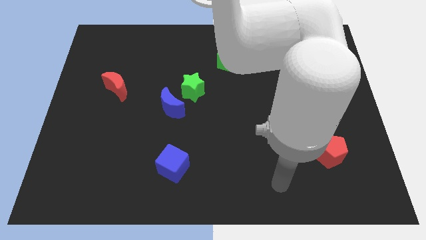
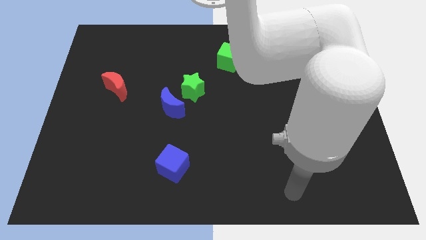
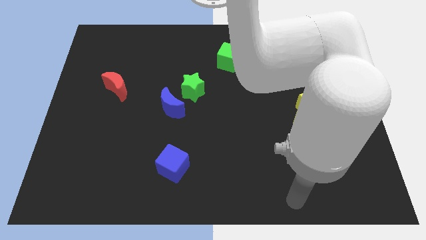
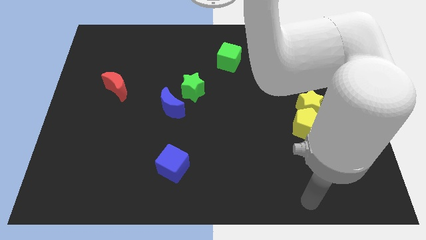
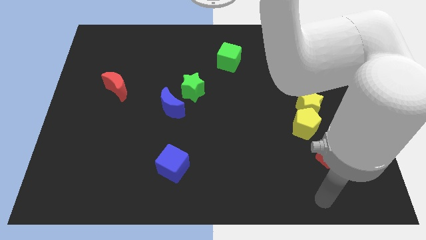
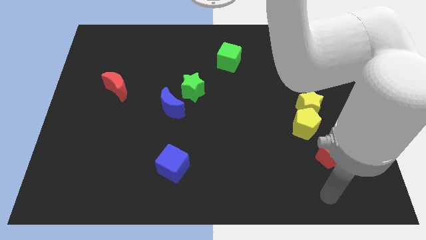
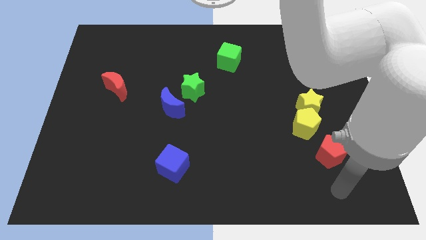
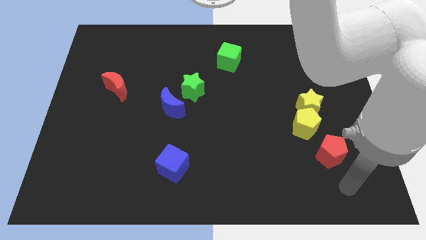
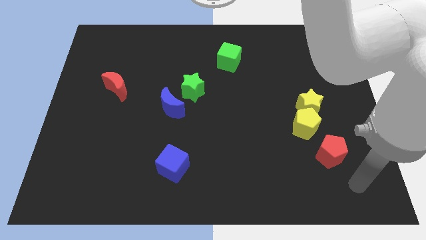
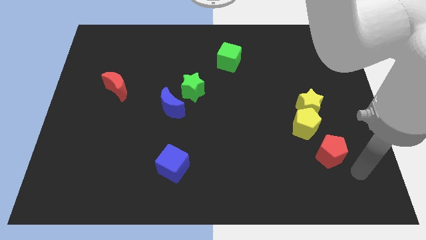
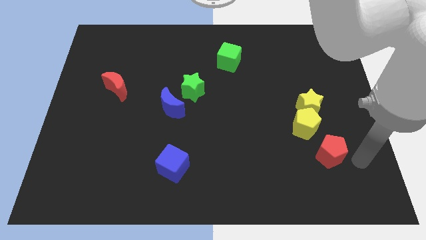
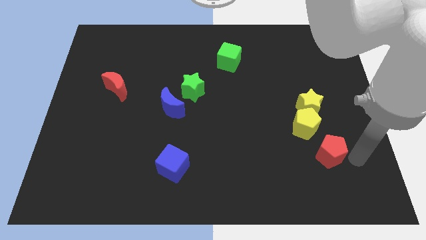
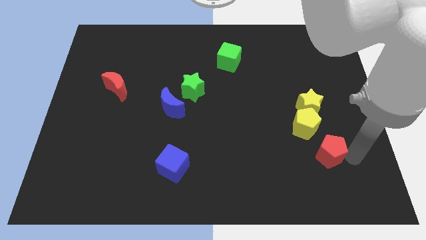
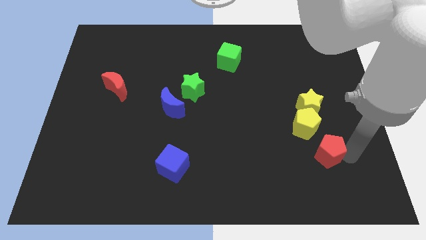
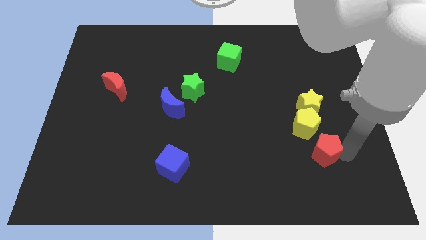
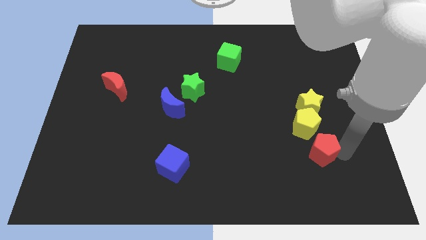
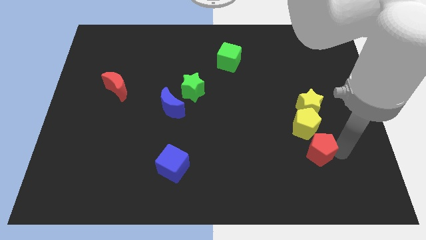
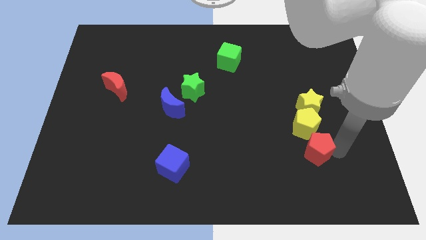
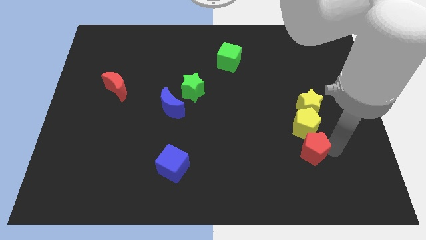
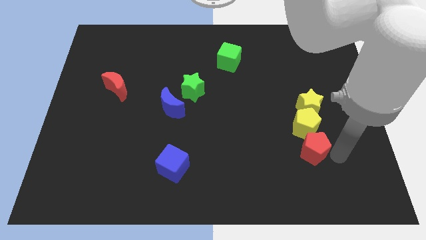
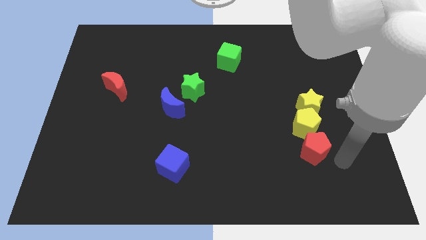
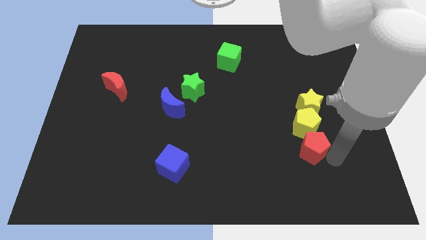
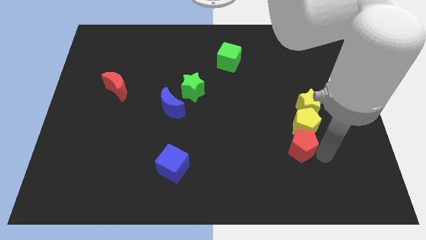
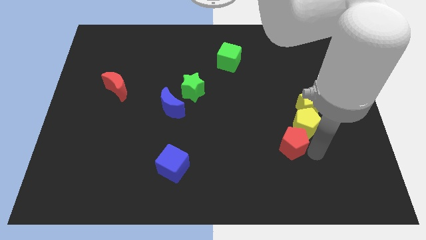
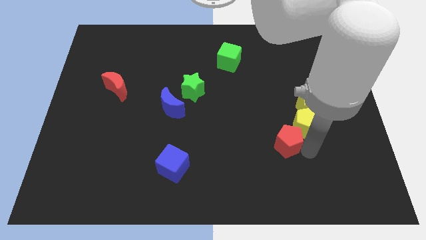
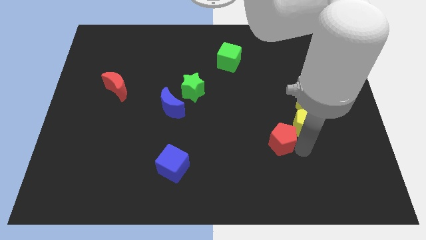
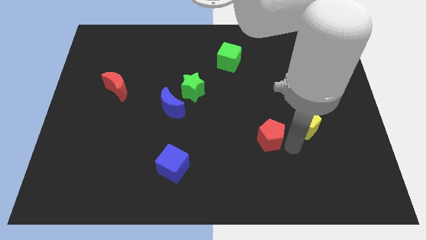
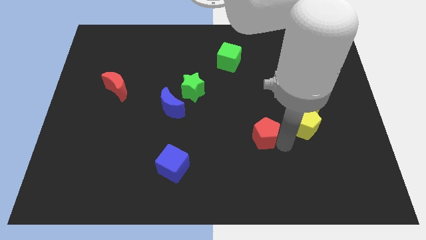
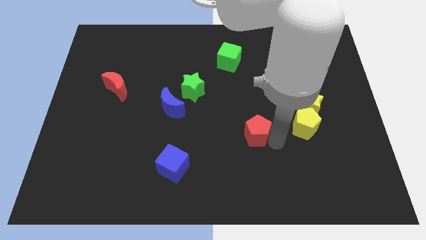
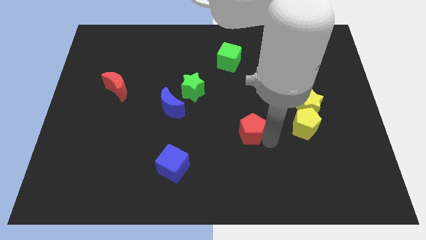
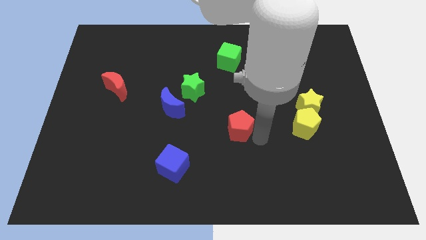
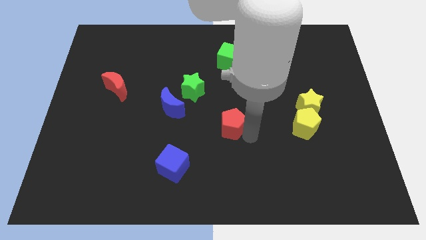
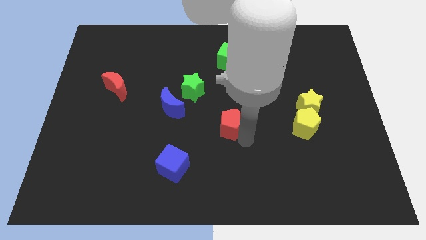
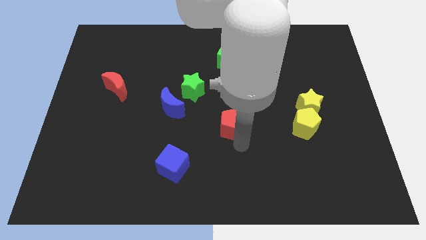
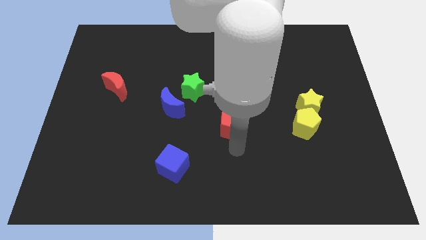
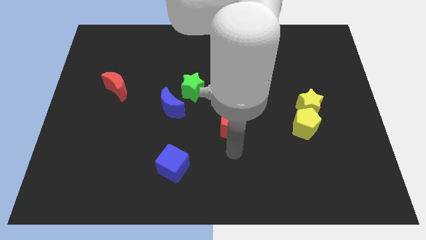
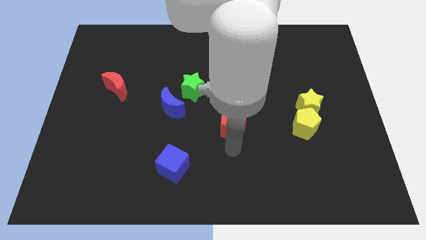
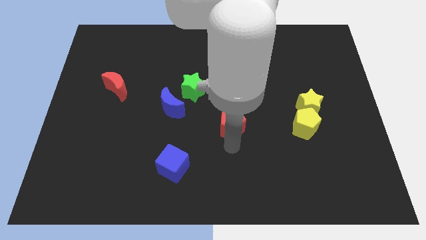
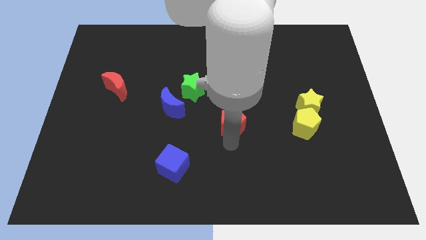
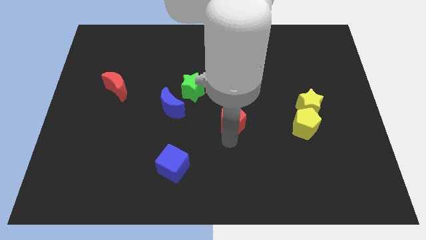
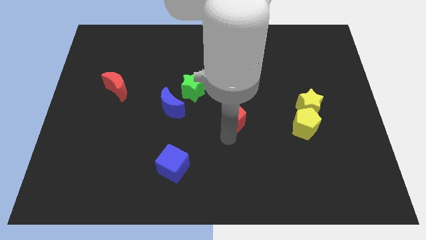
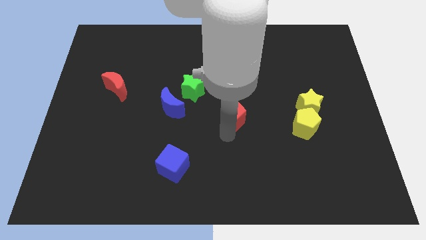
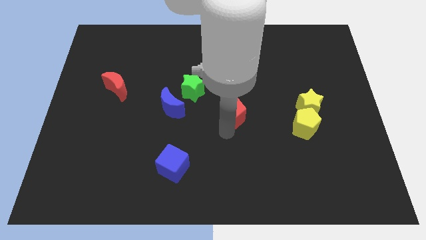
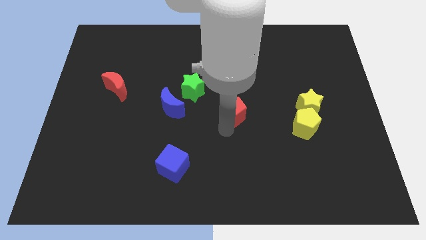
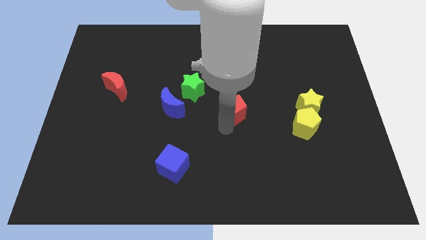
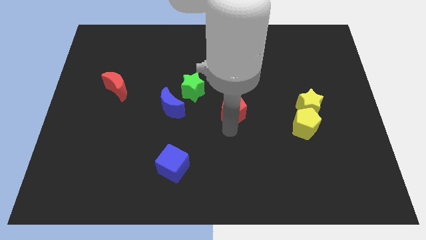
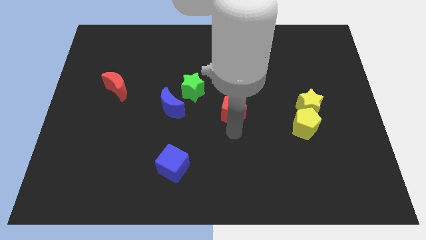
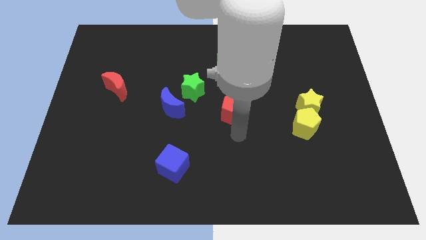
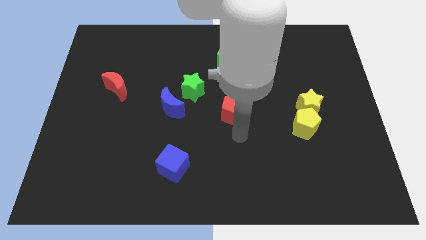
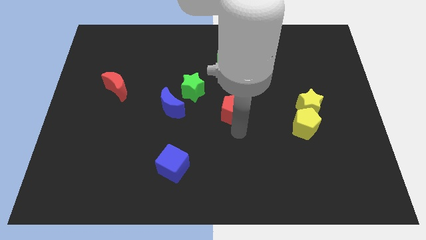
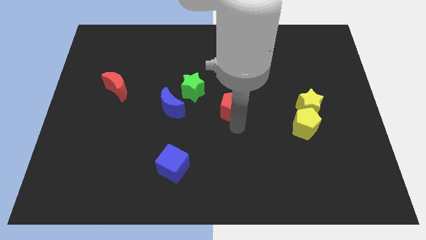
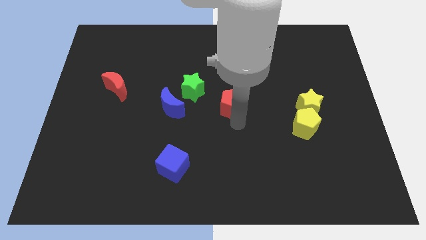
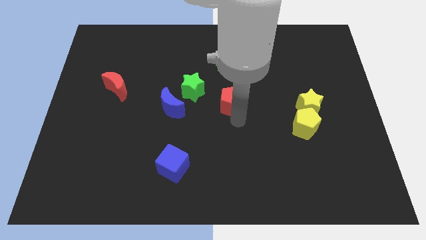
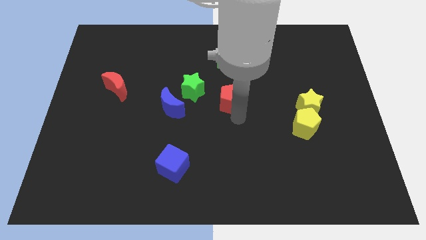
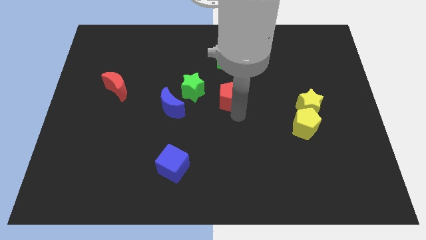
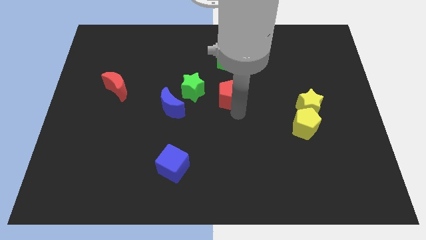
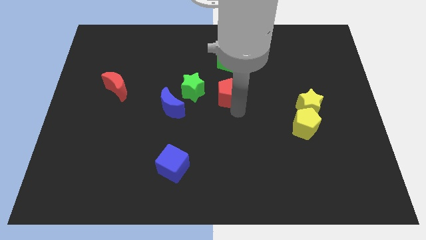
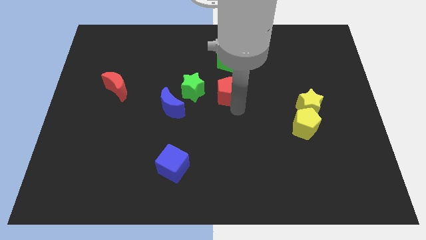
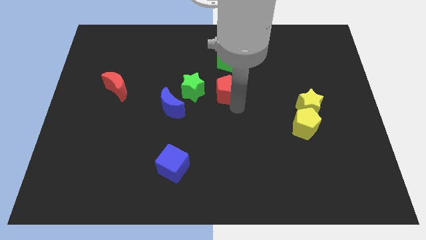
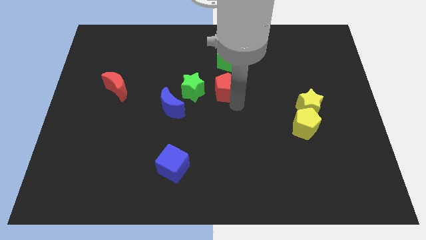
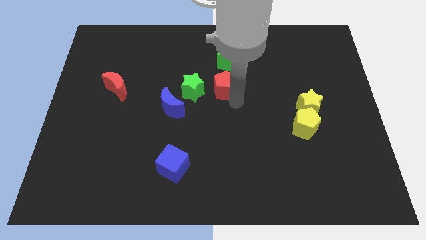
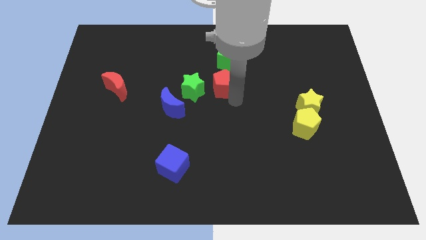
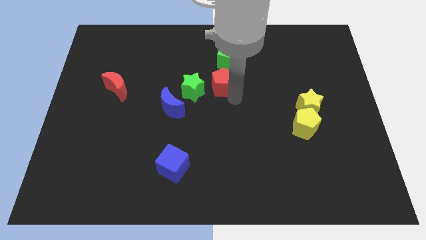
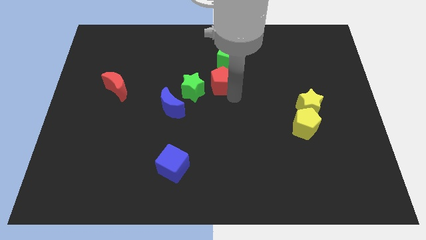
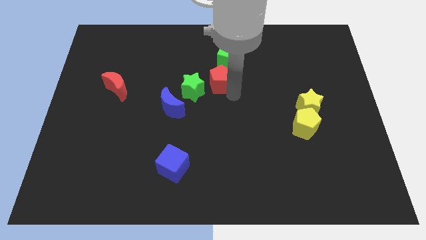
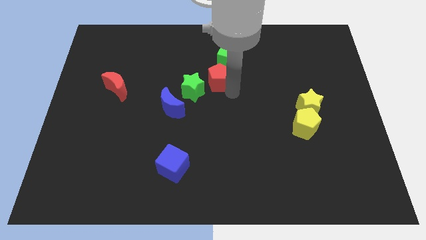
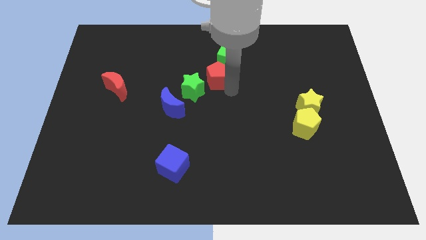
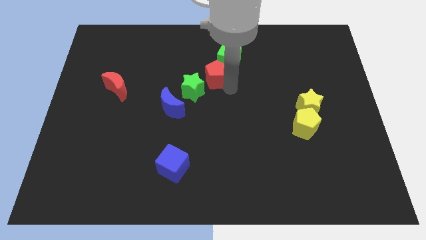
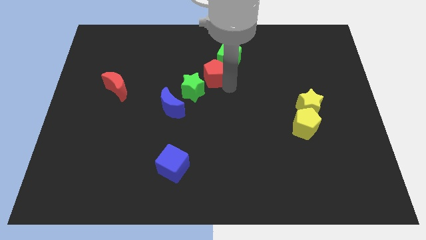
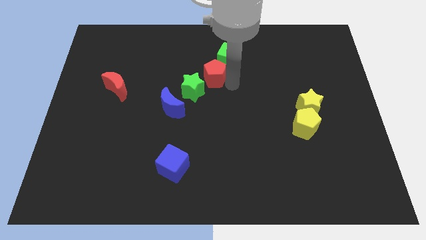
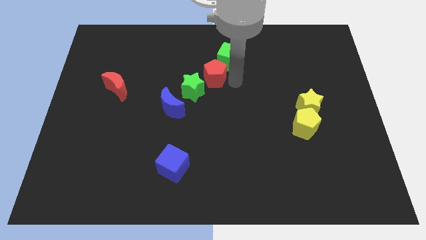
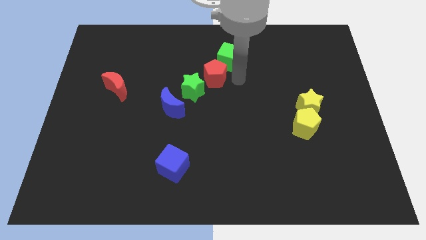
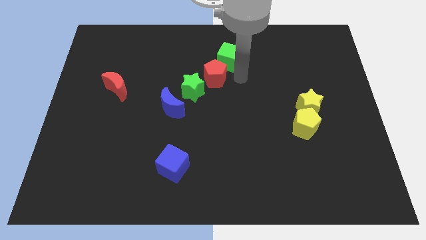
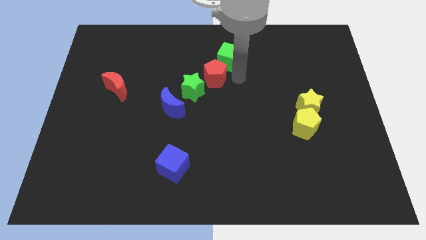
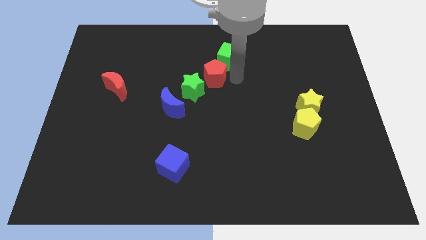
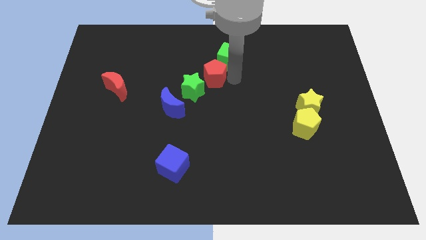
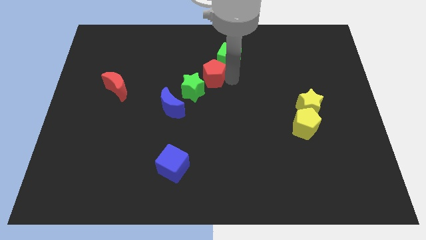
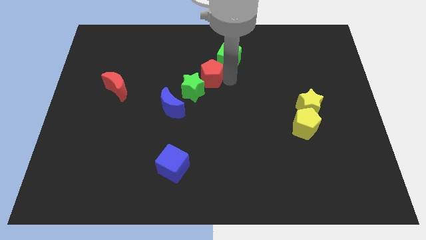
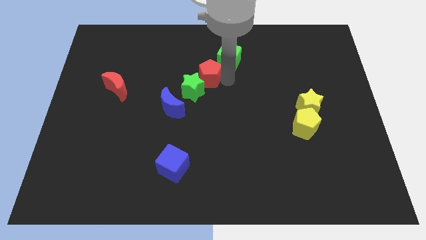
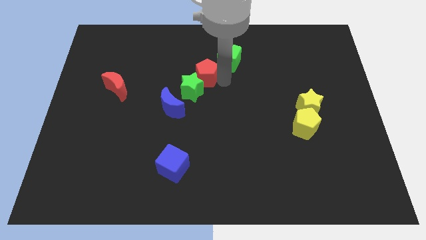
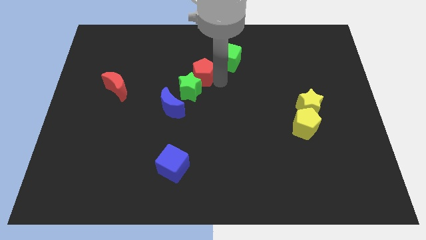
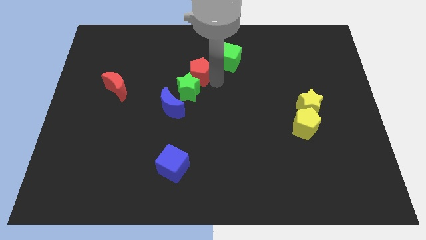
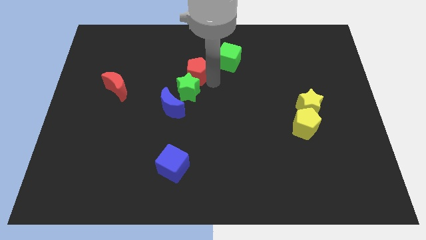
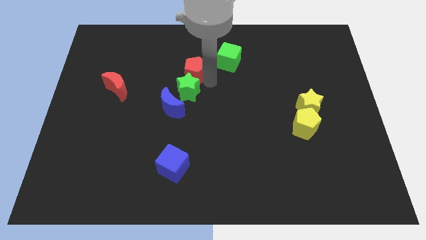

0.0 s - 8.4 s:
put the red pentagon to the top left of the green star
